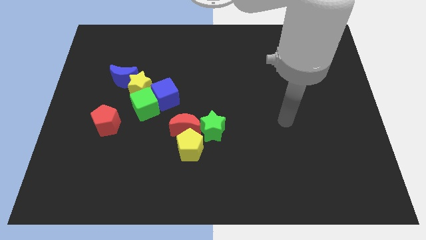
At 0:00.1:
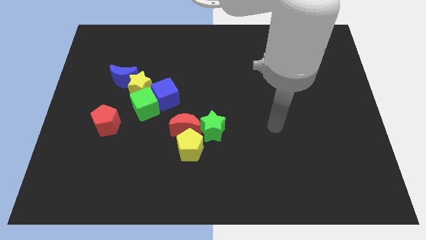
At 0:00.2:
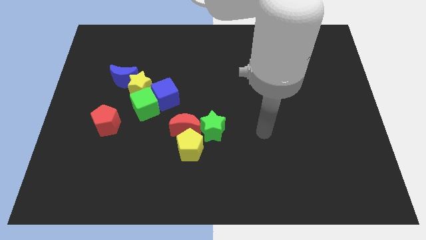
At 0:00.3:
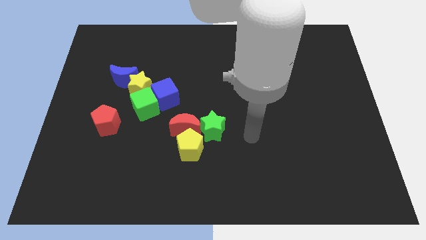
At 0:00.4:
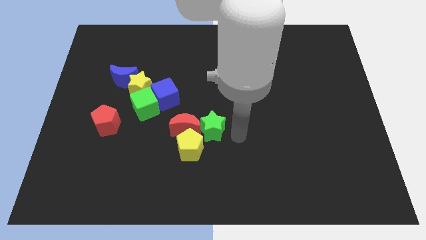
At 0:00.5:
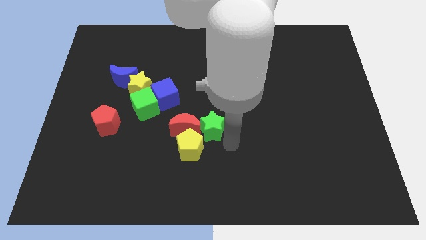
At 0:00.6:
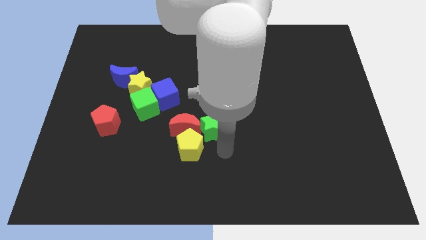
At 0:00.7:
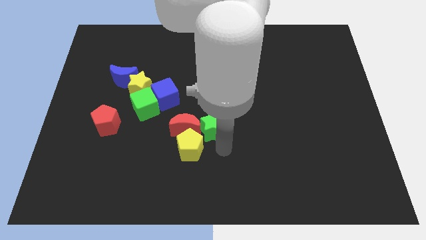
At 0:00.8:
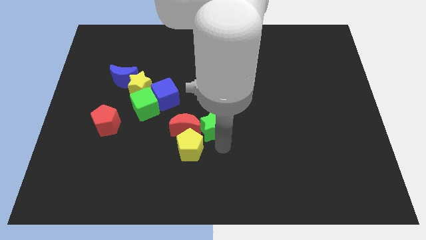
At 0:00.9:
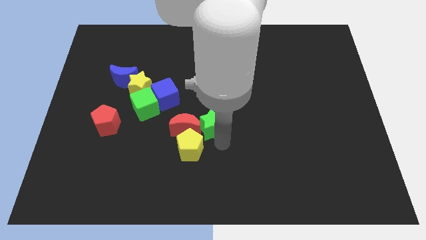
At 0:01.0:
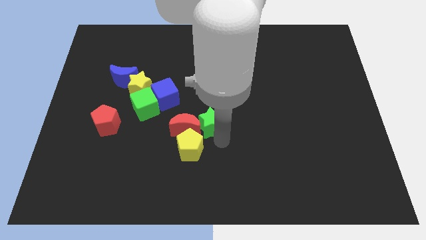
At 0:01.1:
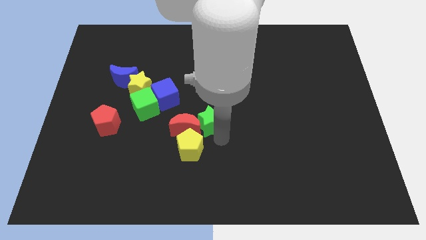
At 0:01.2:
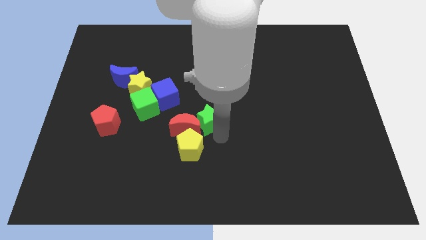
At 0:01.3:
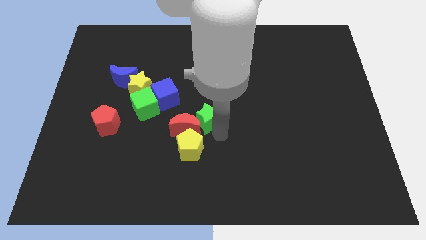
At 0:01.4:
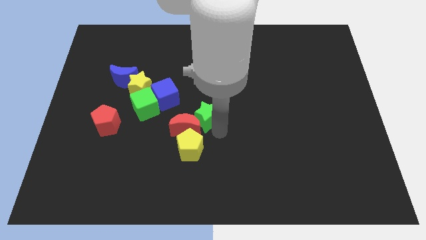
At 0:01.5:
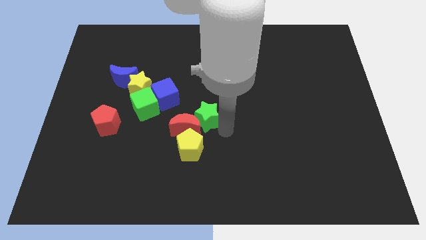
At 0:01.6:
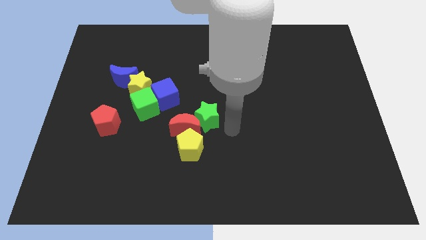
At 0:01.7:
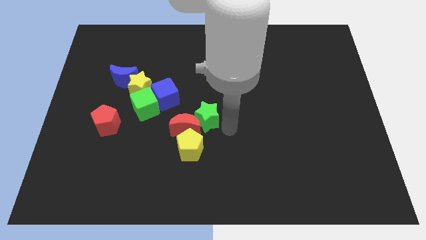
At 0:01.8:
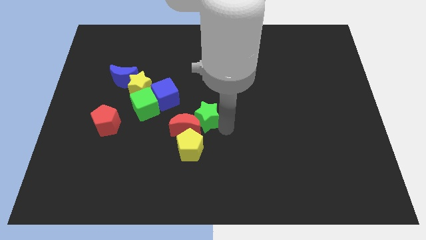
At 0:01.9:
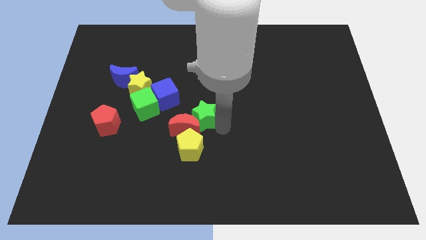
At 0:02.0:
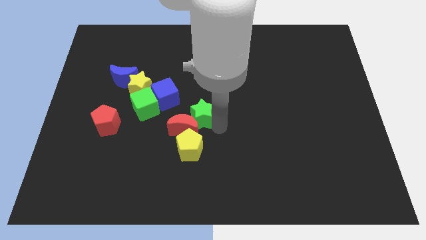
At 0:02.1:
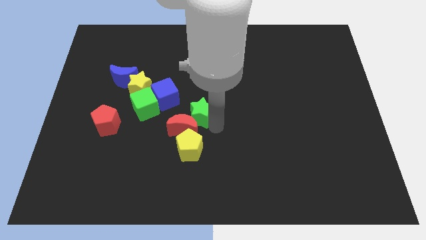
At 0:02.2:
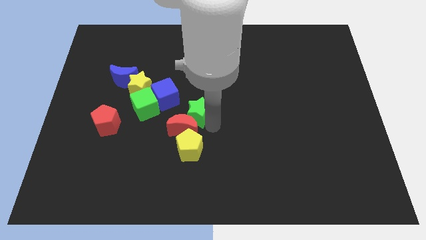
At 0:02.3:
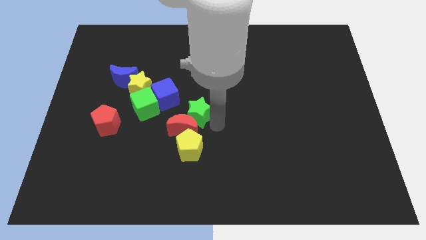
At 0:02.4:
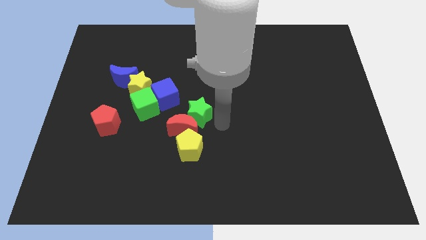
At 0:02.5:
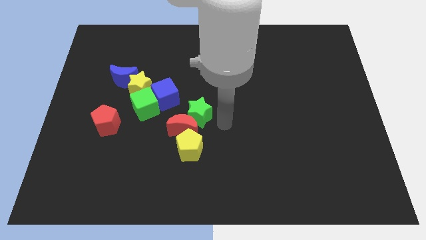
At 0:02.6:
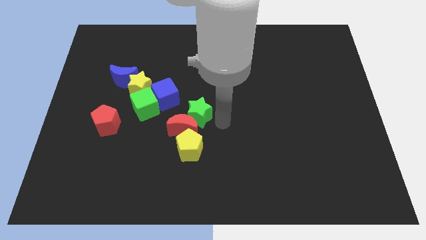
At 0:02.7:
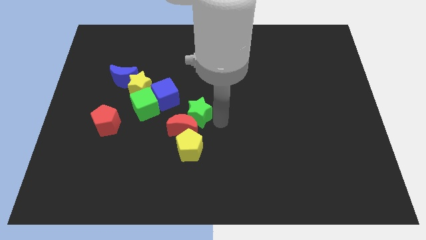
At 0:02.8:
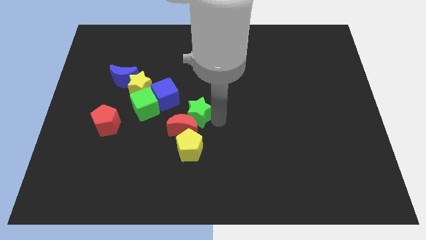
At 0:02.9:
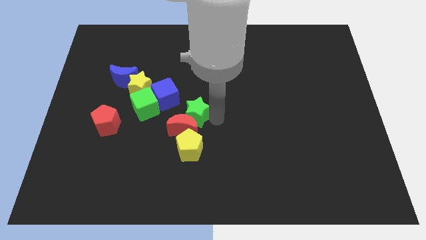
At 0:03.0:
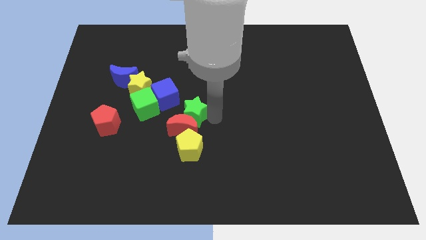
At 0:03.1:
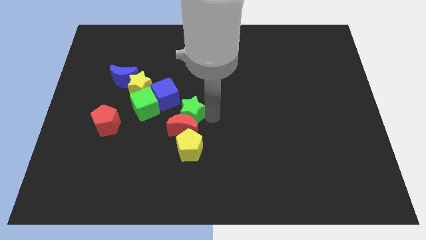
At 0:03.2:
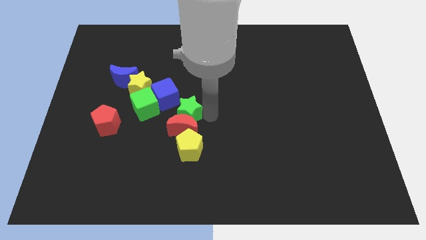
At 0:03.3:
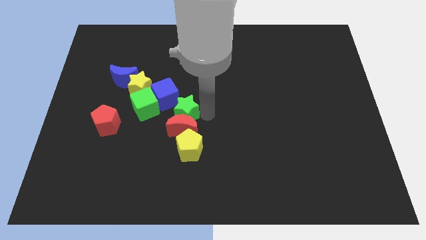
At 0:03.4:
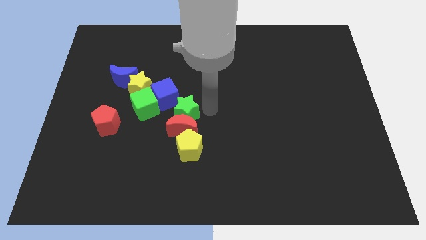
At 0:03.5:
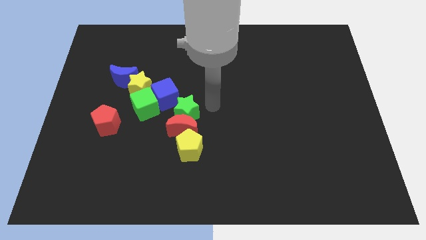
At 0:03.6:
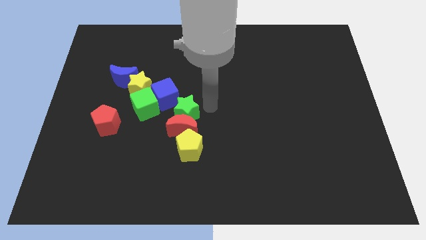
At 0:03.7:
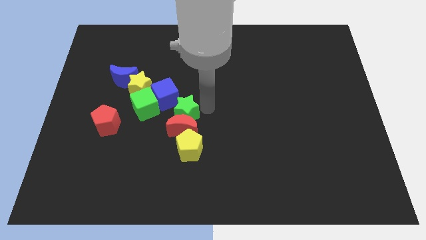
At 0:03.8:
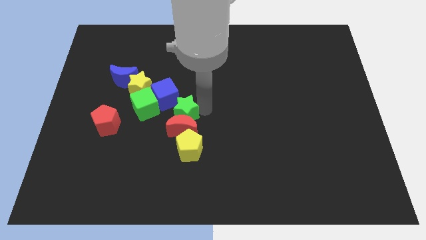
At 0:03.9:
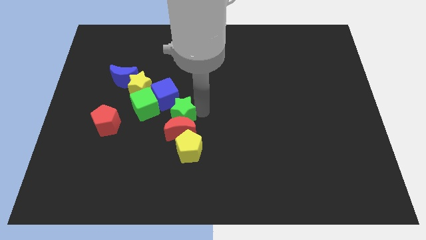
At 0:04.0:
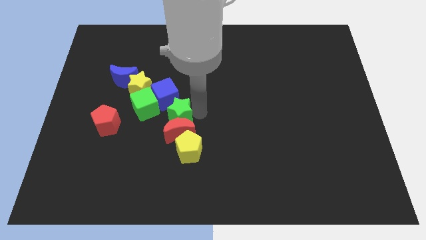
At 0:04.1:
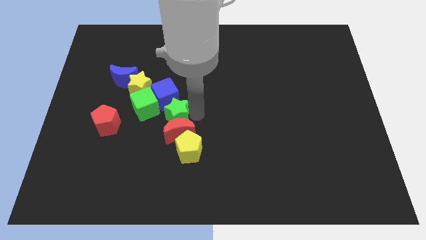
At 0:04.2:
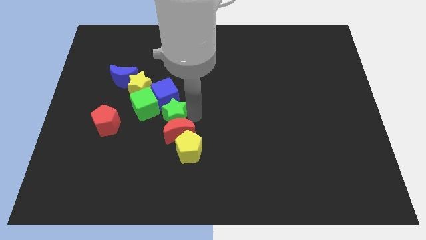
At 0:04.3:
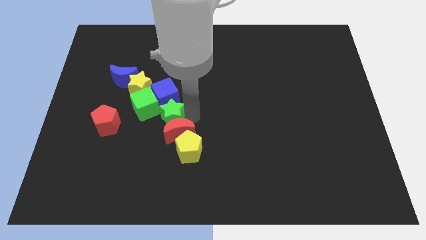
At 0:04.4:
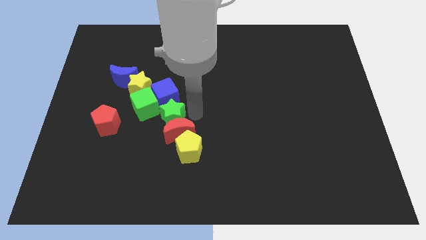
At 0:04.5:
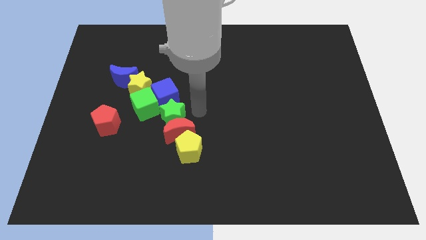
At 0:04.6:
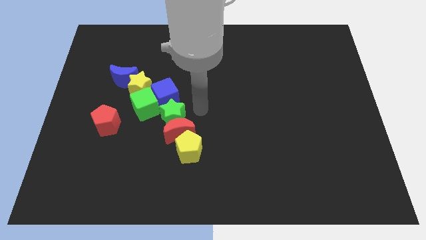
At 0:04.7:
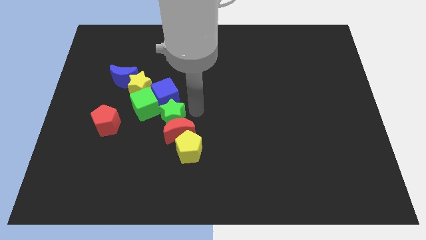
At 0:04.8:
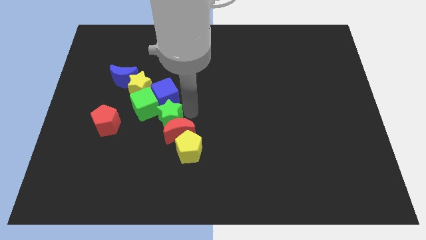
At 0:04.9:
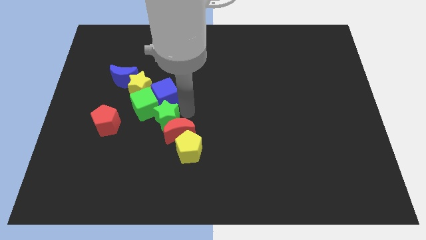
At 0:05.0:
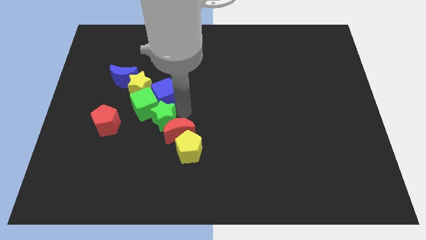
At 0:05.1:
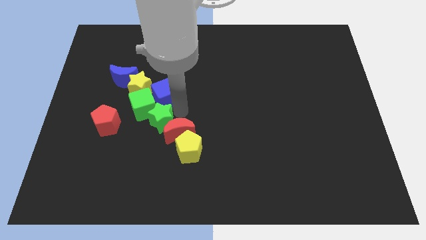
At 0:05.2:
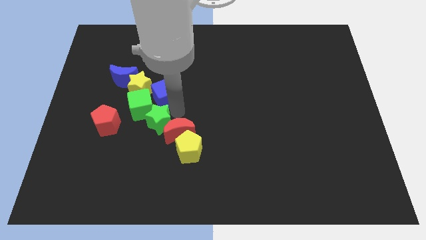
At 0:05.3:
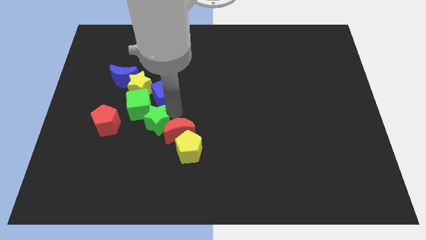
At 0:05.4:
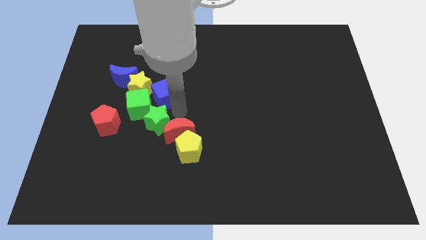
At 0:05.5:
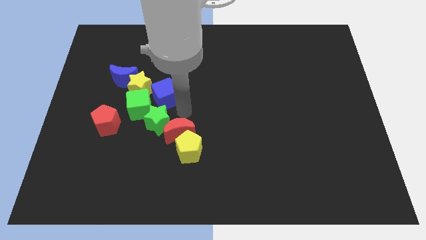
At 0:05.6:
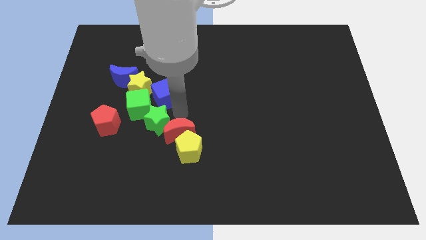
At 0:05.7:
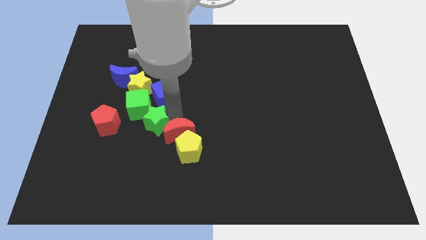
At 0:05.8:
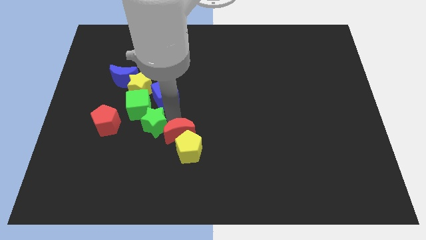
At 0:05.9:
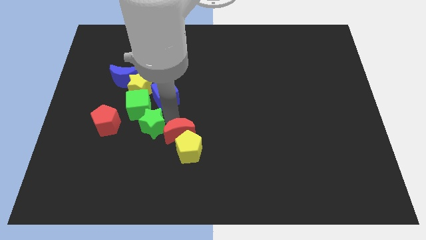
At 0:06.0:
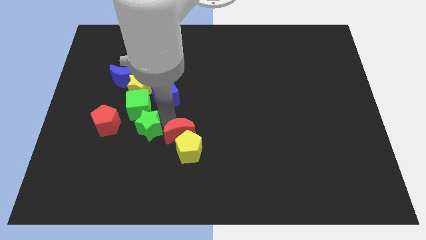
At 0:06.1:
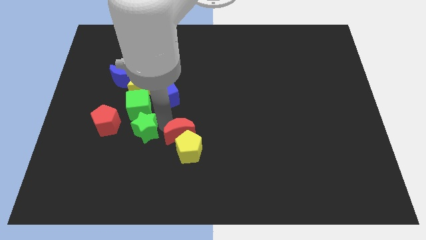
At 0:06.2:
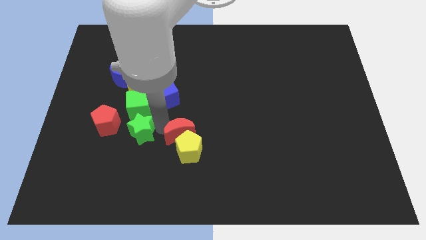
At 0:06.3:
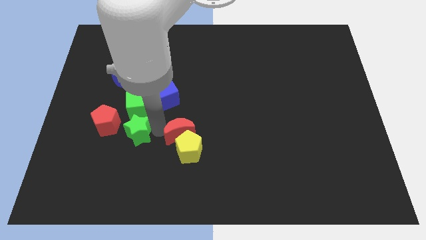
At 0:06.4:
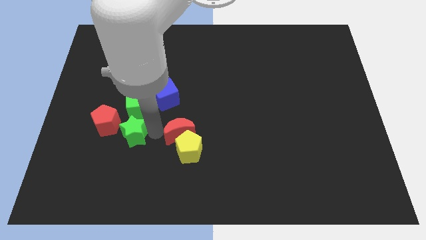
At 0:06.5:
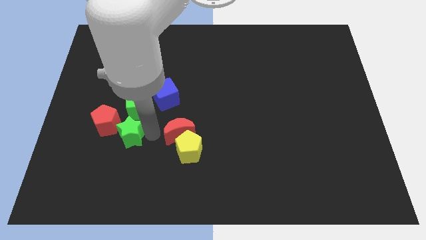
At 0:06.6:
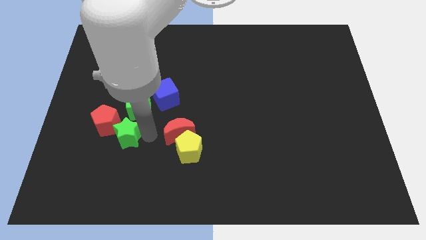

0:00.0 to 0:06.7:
move the green star to the red pentagon

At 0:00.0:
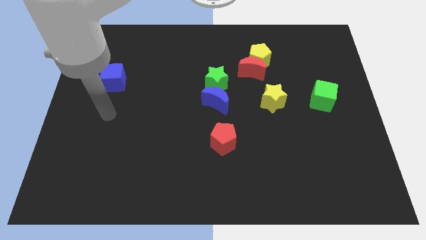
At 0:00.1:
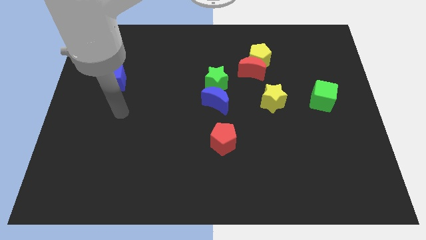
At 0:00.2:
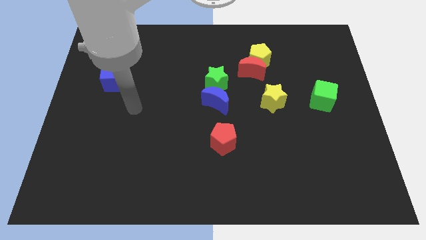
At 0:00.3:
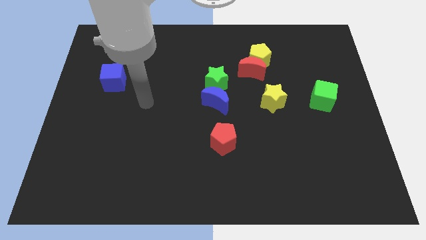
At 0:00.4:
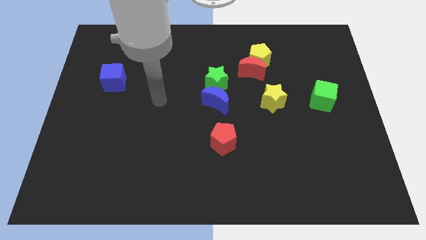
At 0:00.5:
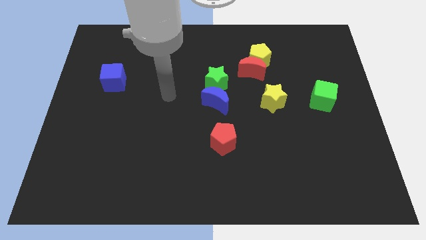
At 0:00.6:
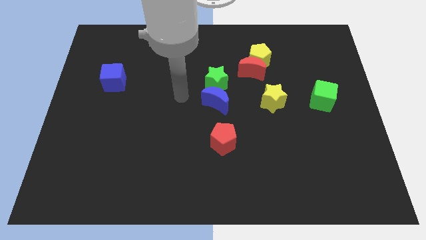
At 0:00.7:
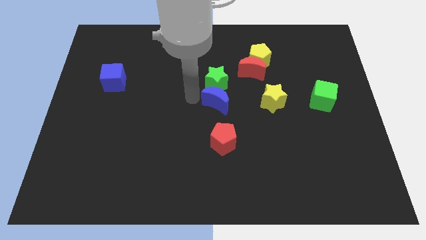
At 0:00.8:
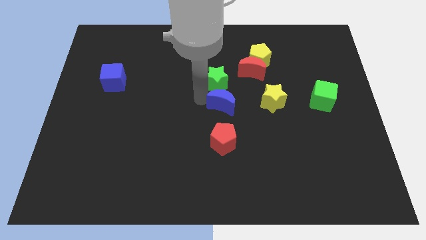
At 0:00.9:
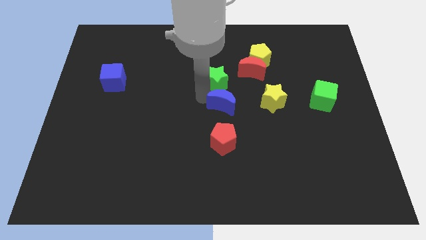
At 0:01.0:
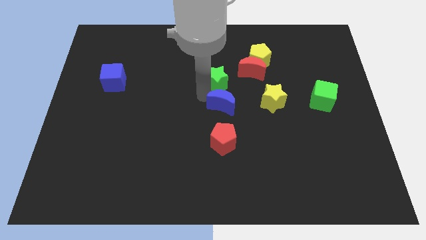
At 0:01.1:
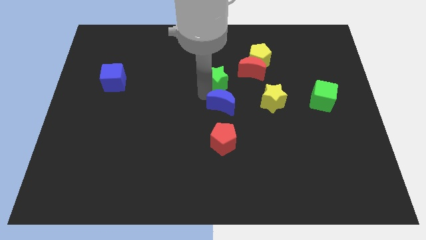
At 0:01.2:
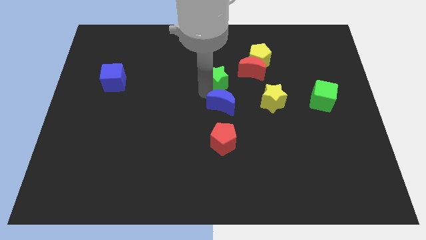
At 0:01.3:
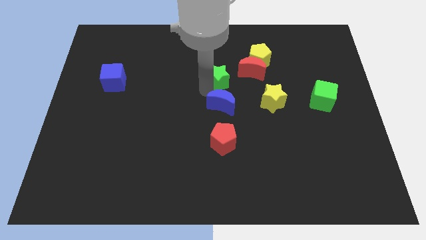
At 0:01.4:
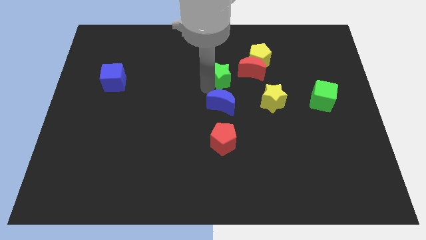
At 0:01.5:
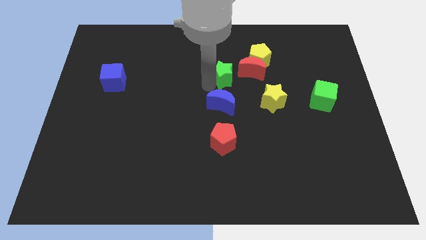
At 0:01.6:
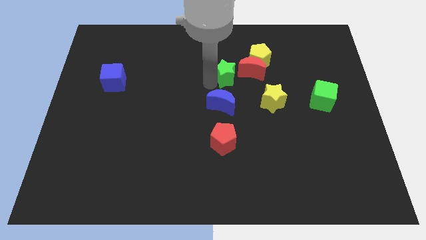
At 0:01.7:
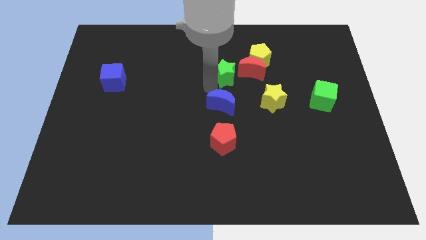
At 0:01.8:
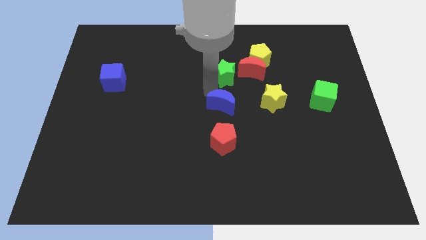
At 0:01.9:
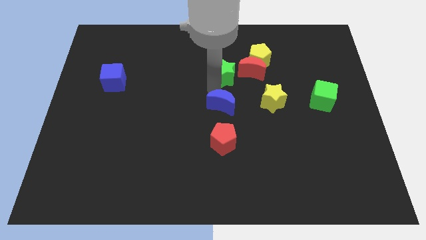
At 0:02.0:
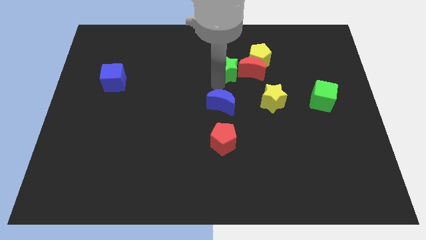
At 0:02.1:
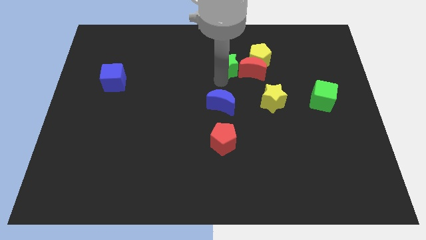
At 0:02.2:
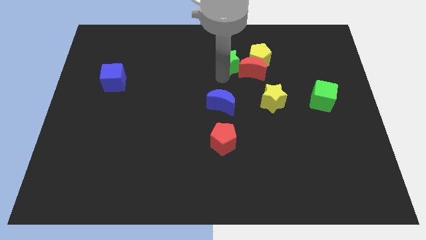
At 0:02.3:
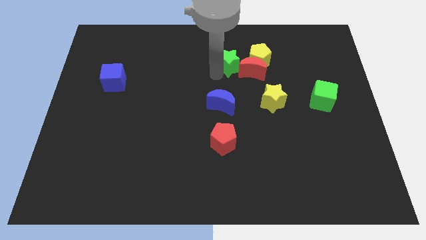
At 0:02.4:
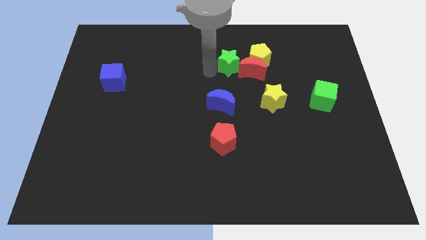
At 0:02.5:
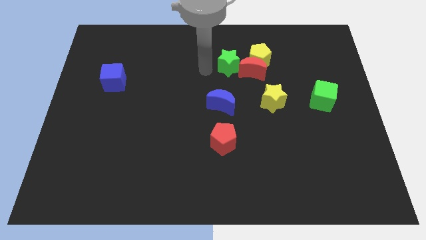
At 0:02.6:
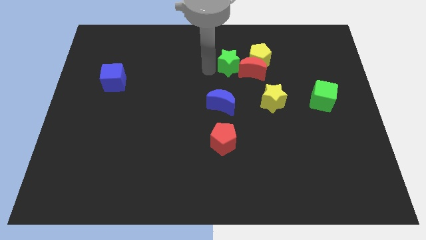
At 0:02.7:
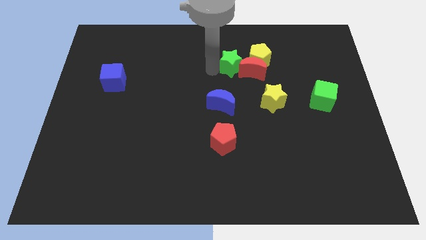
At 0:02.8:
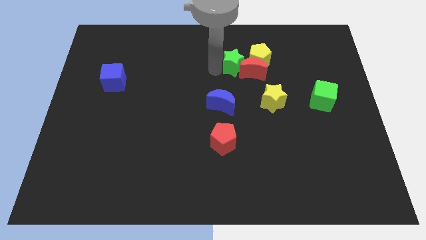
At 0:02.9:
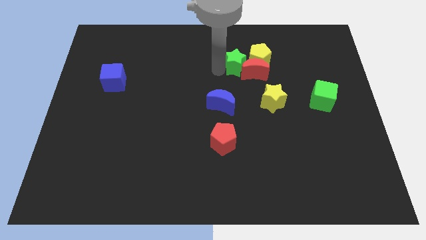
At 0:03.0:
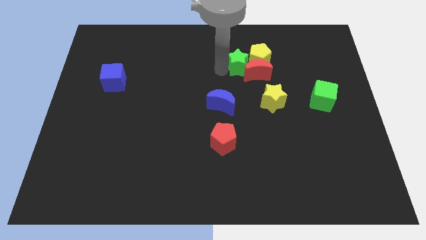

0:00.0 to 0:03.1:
move the green star to the yellow pentagon
